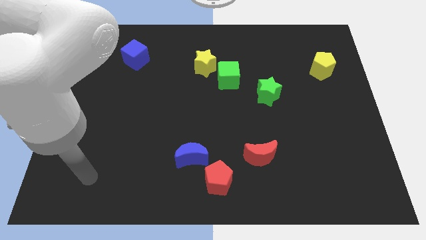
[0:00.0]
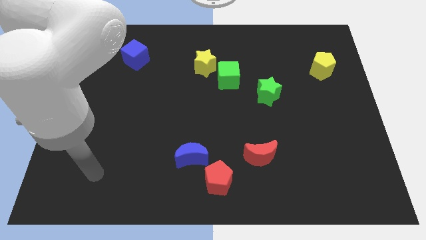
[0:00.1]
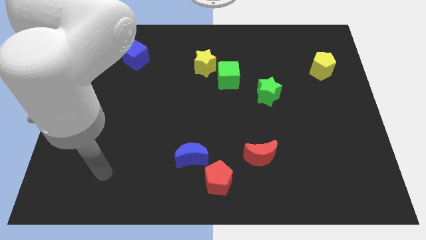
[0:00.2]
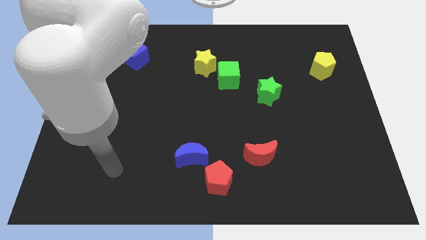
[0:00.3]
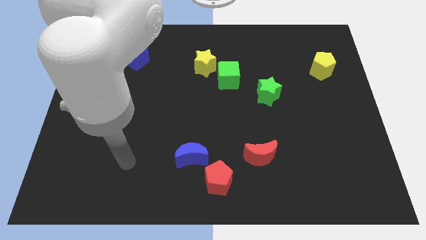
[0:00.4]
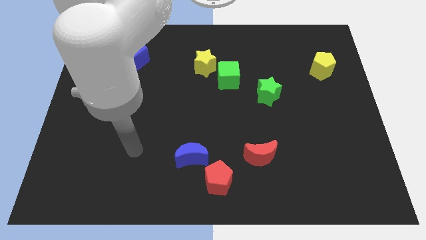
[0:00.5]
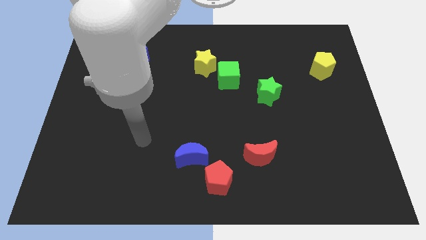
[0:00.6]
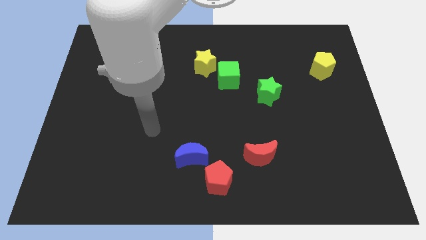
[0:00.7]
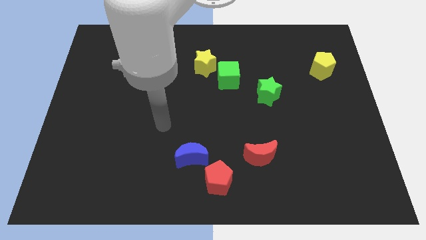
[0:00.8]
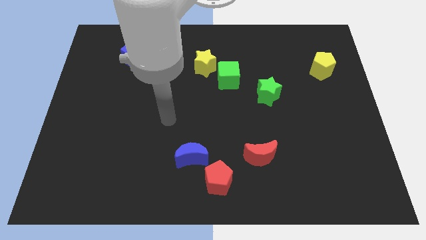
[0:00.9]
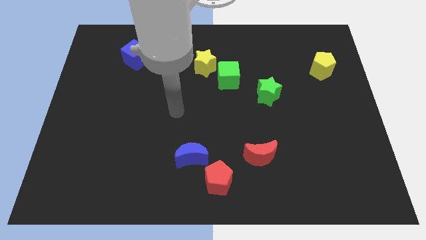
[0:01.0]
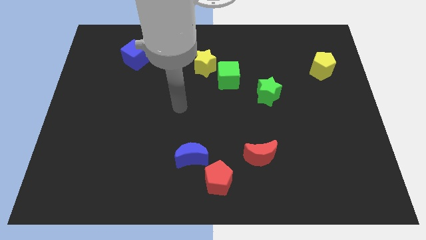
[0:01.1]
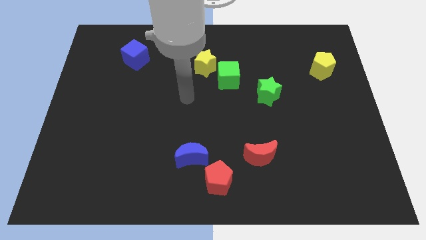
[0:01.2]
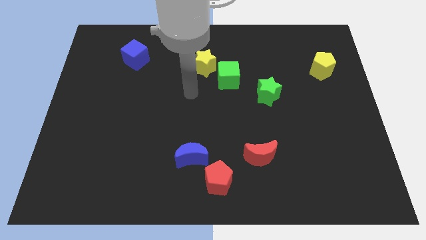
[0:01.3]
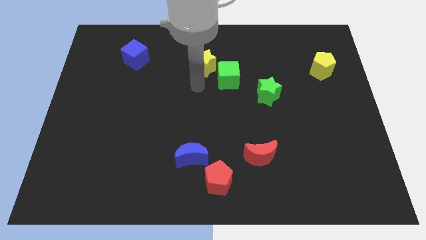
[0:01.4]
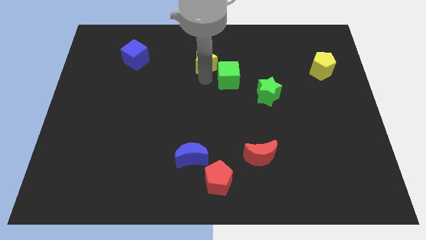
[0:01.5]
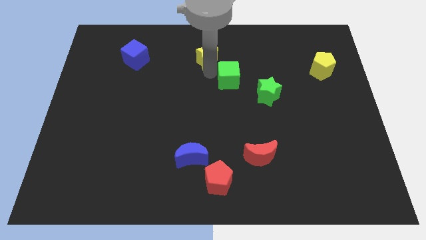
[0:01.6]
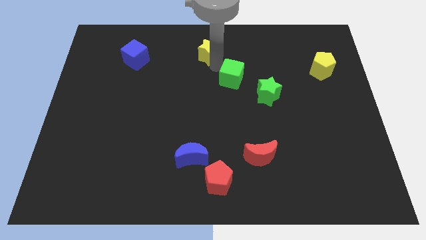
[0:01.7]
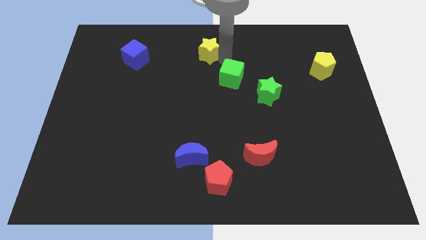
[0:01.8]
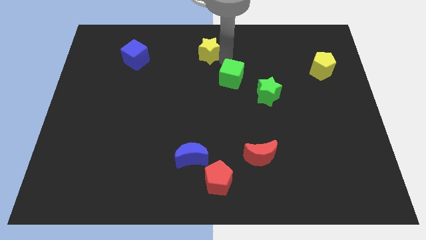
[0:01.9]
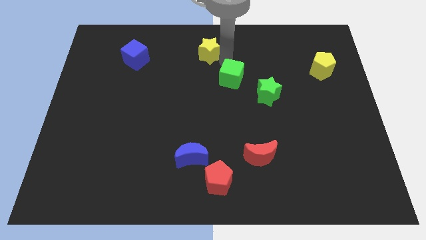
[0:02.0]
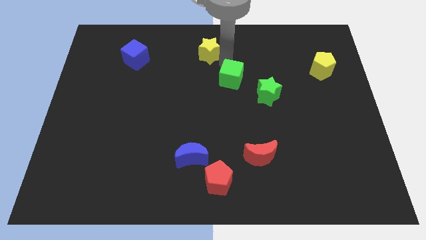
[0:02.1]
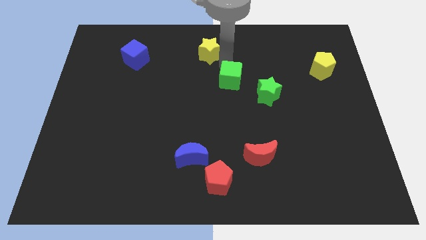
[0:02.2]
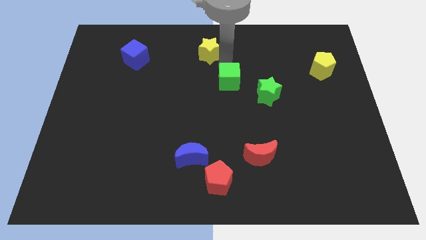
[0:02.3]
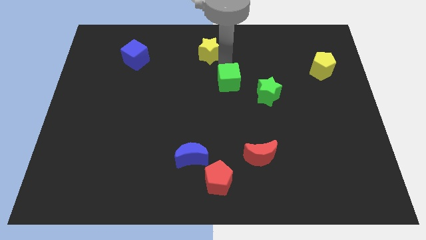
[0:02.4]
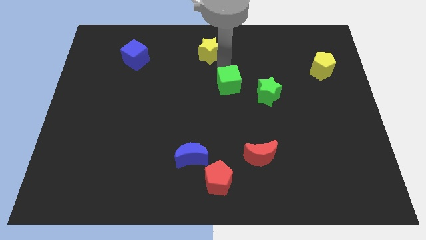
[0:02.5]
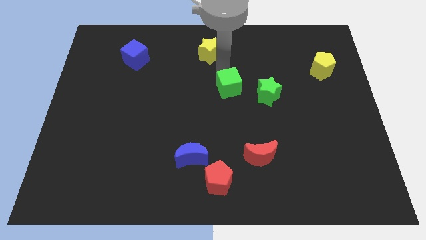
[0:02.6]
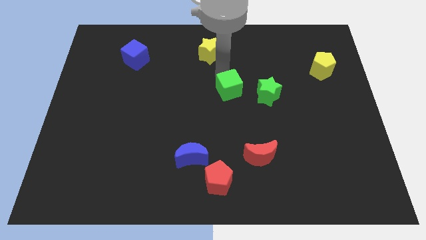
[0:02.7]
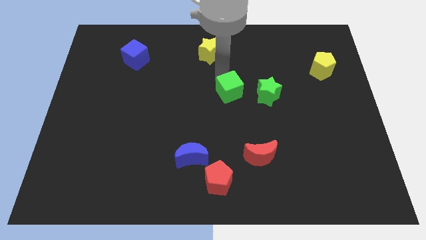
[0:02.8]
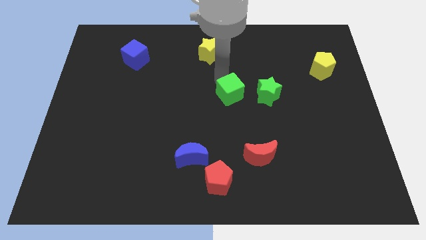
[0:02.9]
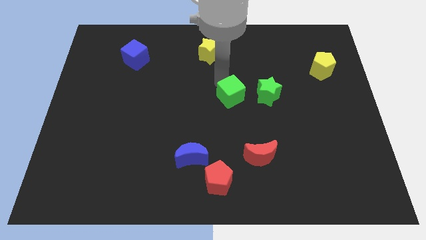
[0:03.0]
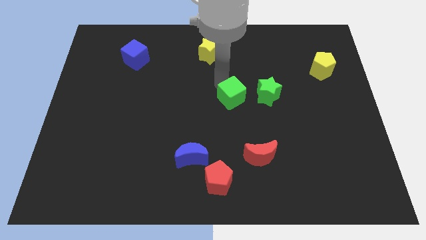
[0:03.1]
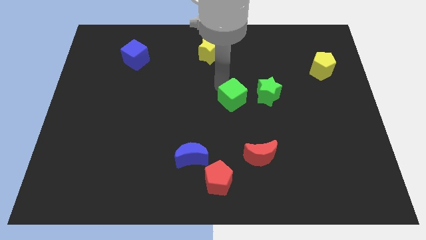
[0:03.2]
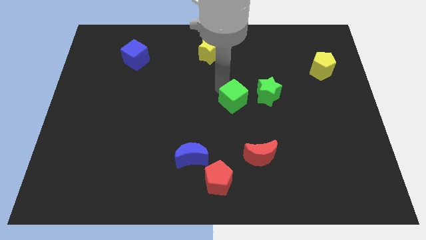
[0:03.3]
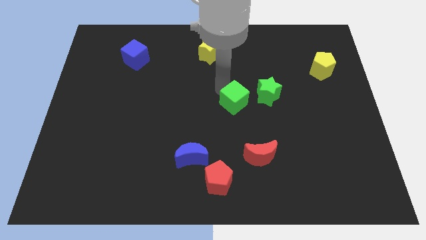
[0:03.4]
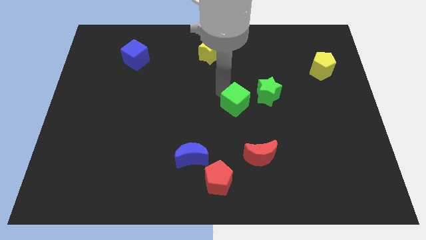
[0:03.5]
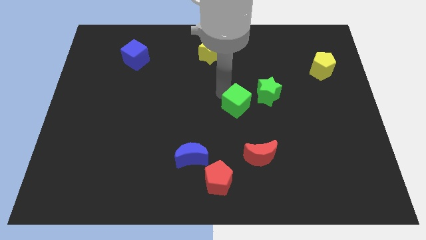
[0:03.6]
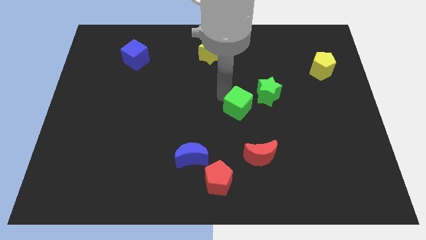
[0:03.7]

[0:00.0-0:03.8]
slightly move the green cube down and then right

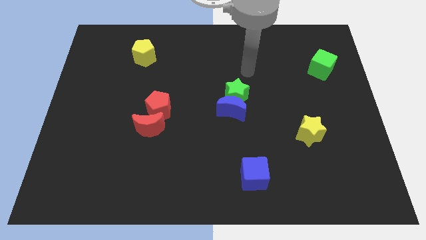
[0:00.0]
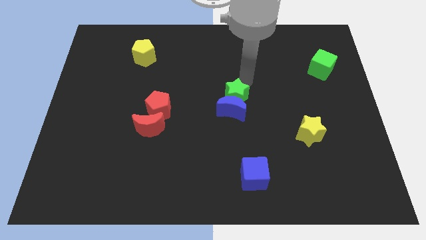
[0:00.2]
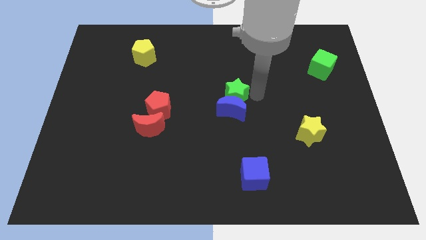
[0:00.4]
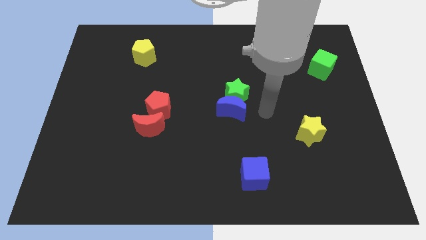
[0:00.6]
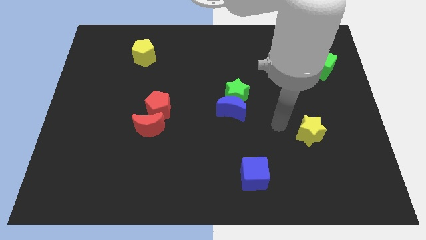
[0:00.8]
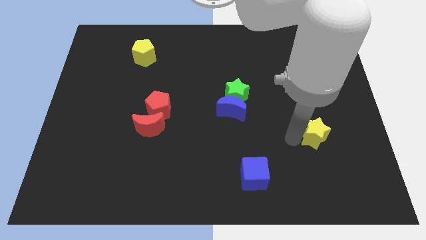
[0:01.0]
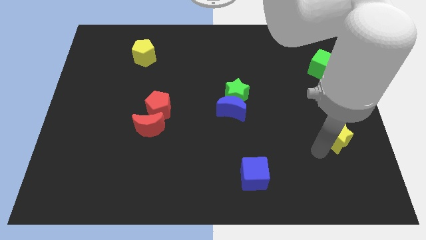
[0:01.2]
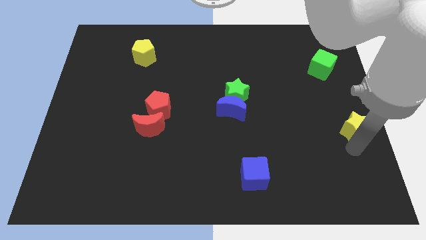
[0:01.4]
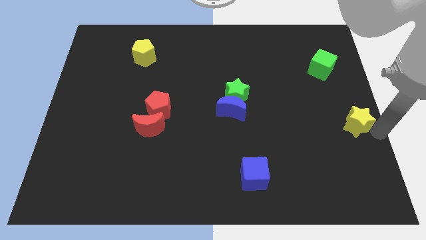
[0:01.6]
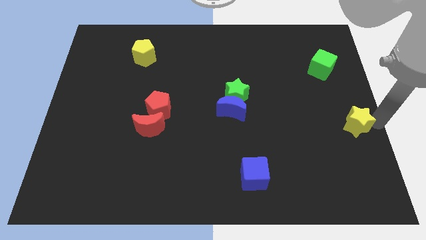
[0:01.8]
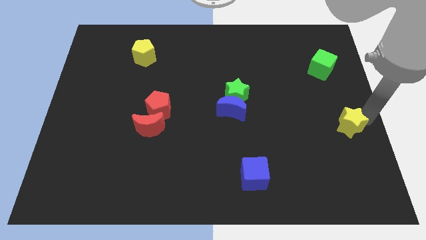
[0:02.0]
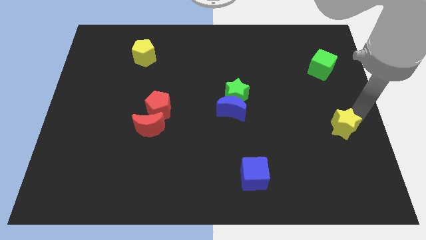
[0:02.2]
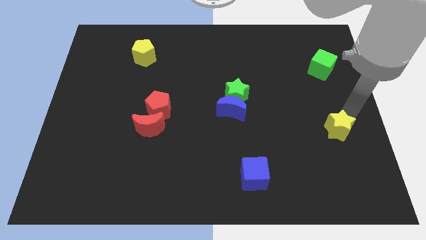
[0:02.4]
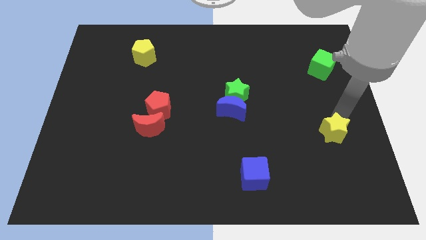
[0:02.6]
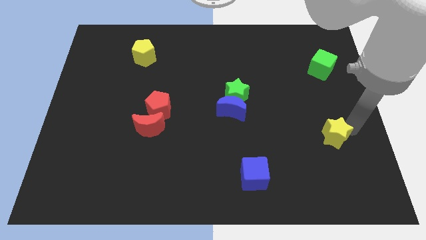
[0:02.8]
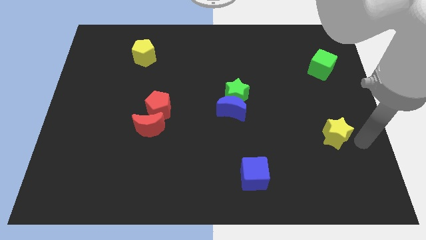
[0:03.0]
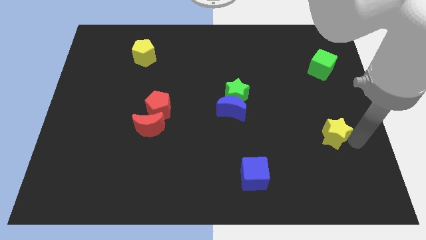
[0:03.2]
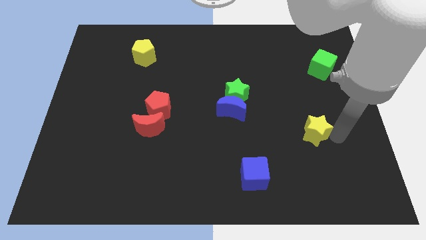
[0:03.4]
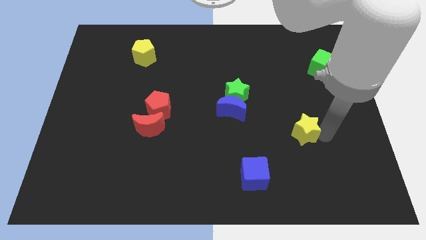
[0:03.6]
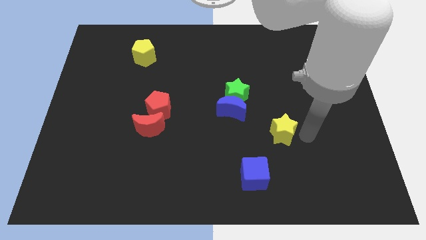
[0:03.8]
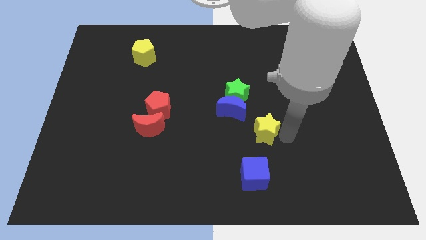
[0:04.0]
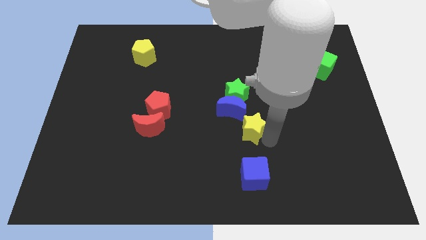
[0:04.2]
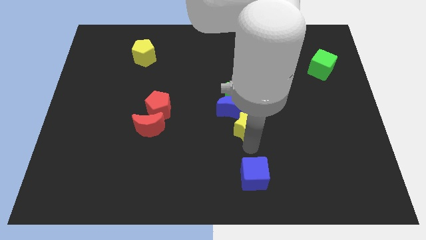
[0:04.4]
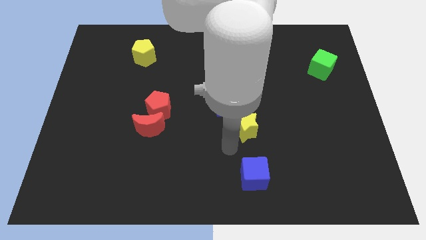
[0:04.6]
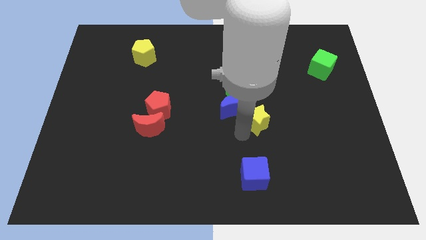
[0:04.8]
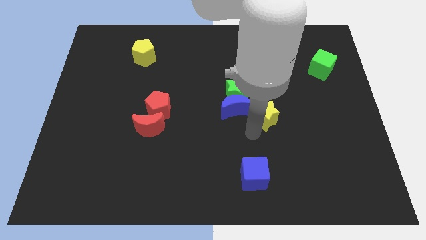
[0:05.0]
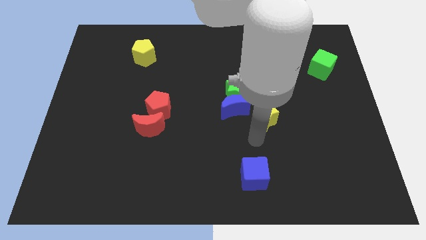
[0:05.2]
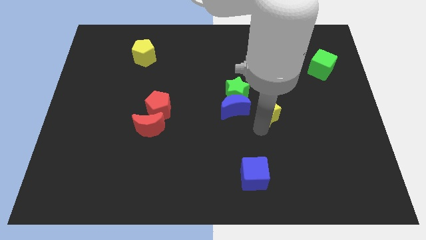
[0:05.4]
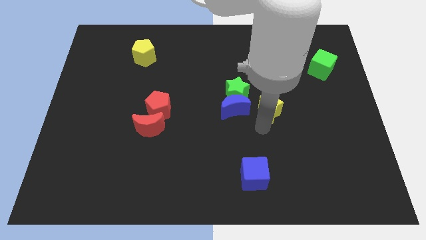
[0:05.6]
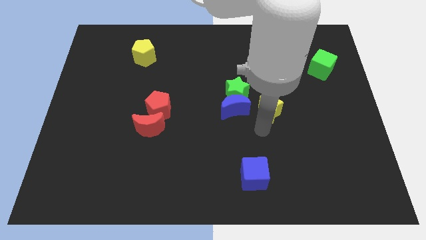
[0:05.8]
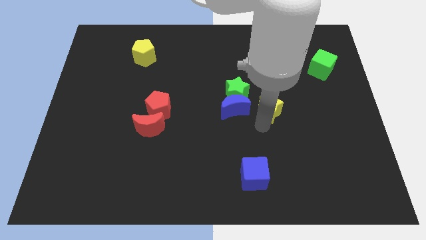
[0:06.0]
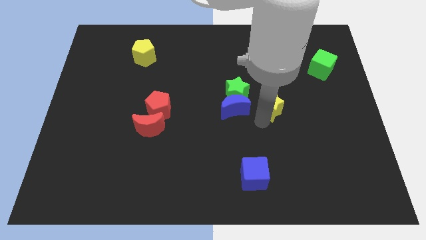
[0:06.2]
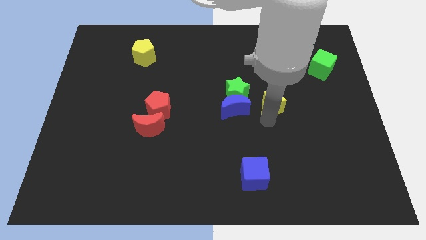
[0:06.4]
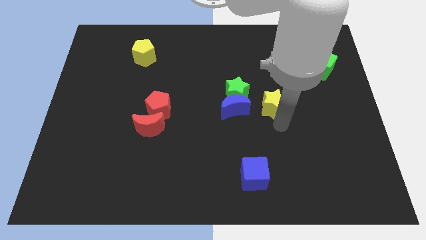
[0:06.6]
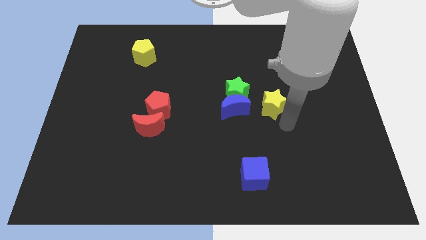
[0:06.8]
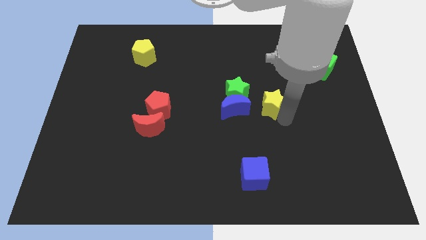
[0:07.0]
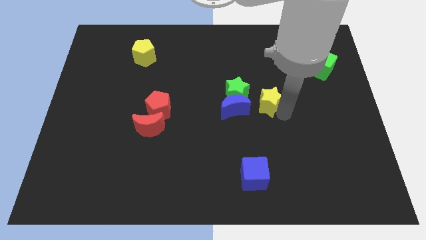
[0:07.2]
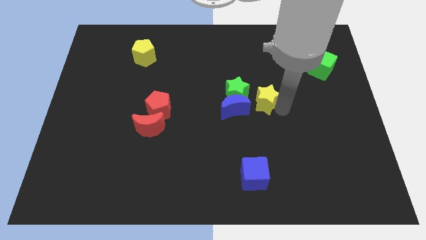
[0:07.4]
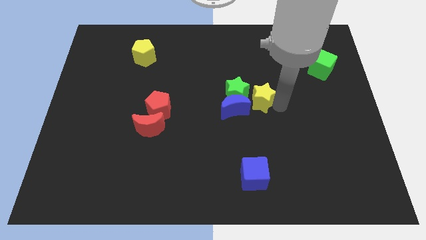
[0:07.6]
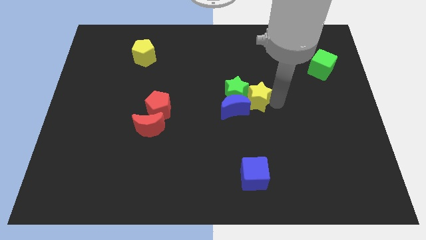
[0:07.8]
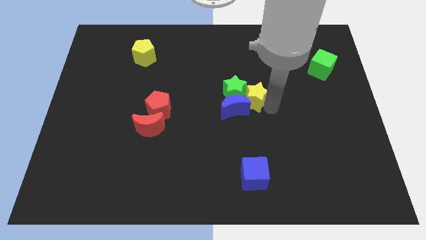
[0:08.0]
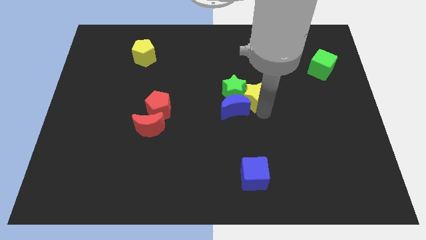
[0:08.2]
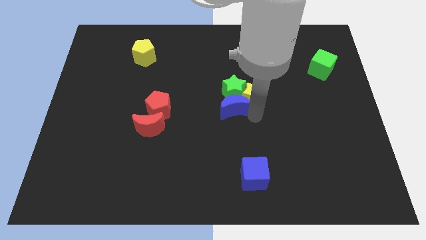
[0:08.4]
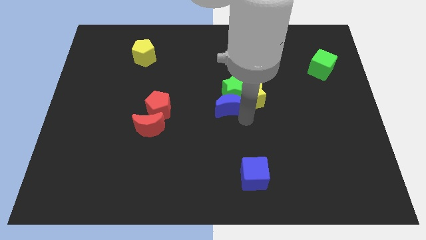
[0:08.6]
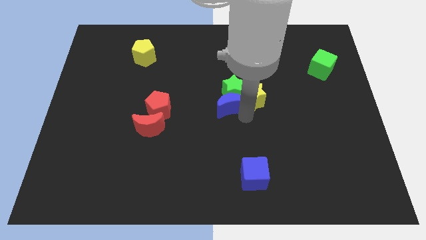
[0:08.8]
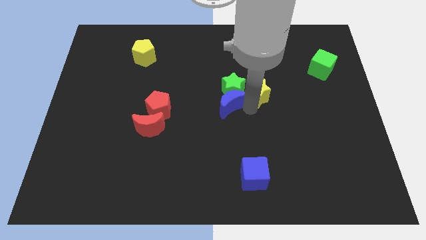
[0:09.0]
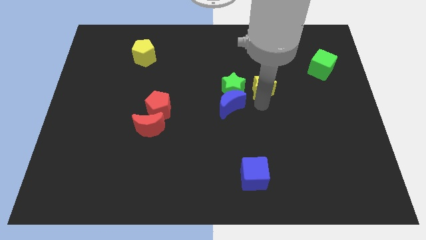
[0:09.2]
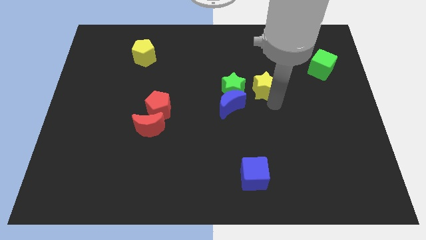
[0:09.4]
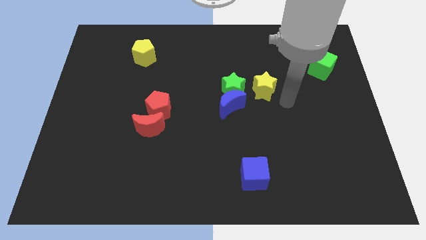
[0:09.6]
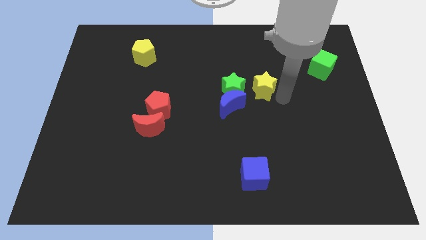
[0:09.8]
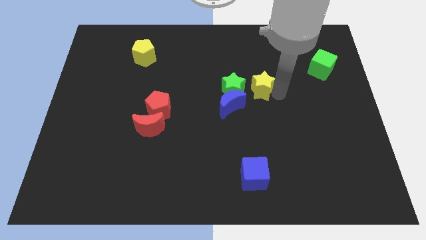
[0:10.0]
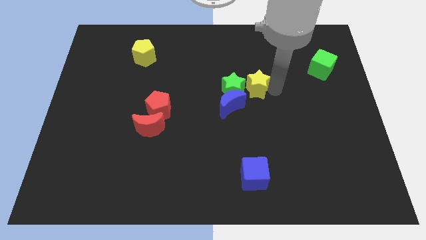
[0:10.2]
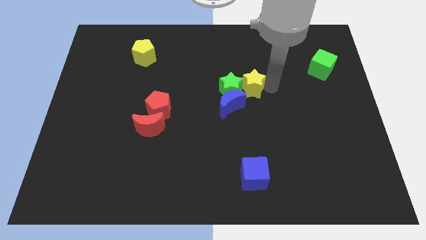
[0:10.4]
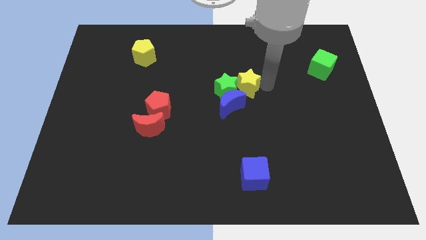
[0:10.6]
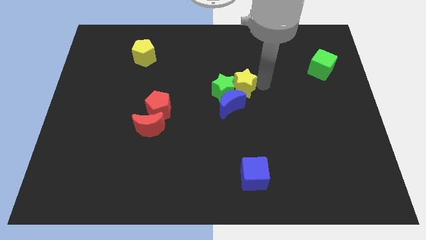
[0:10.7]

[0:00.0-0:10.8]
move the yellow star up and then left
